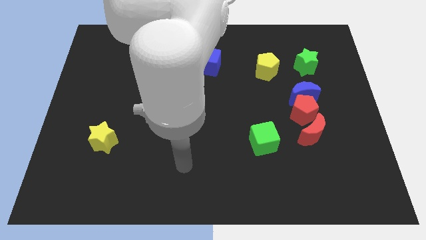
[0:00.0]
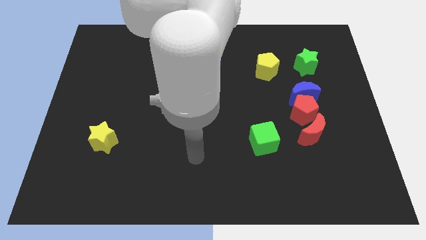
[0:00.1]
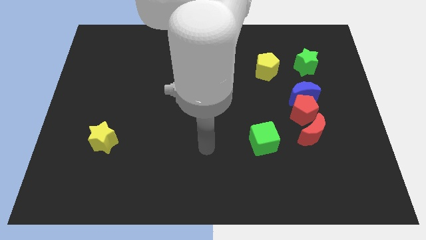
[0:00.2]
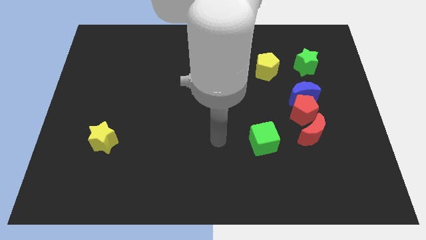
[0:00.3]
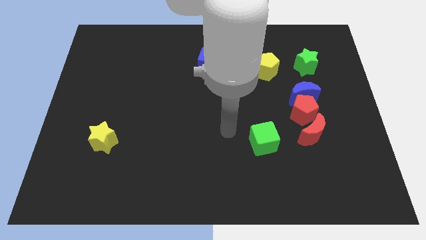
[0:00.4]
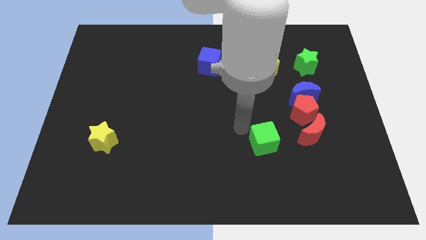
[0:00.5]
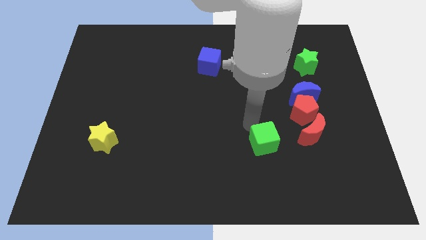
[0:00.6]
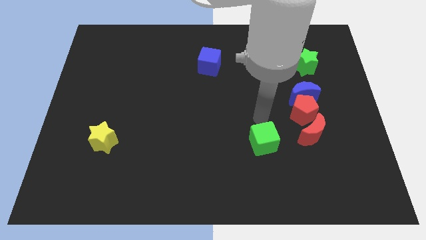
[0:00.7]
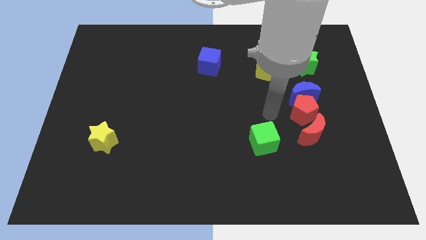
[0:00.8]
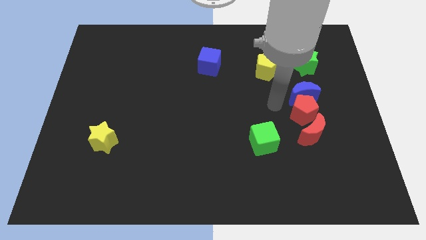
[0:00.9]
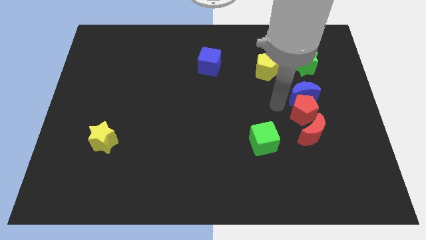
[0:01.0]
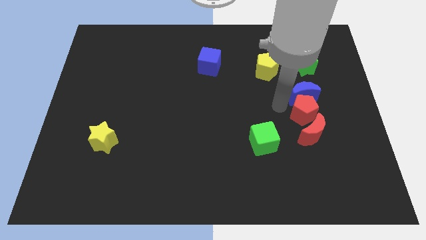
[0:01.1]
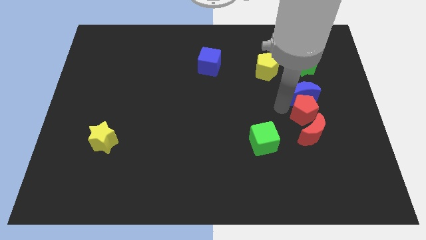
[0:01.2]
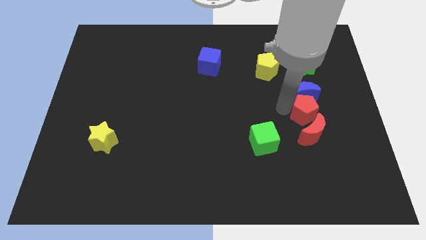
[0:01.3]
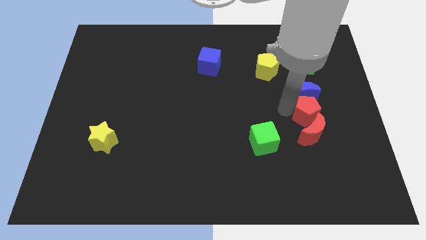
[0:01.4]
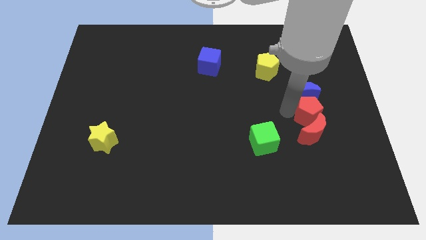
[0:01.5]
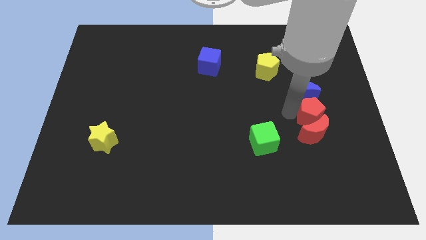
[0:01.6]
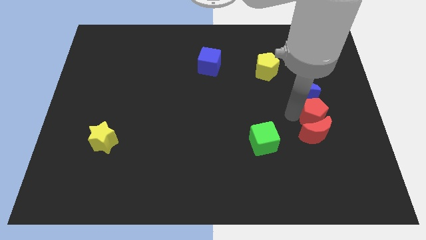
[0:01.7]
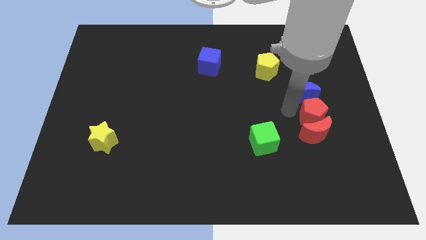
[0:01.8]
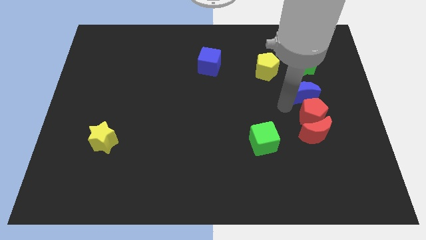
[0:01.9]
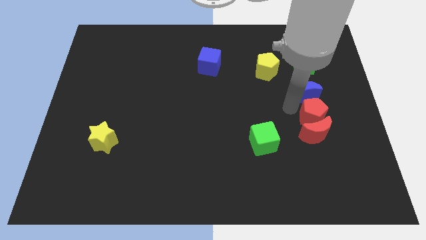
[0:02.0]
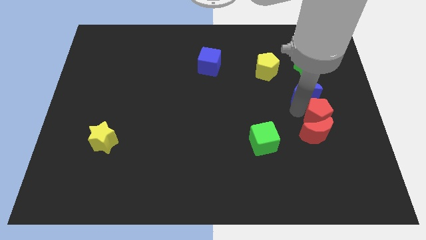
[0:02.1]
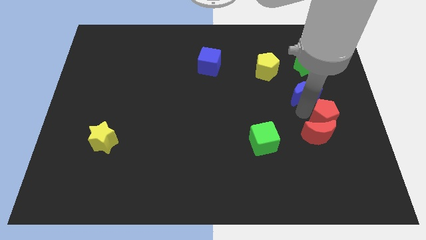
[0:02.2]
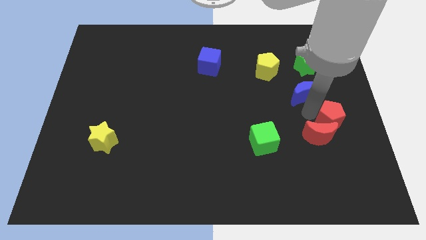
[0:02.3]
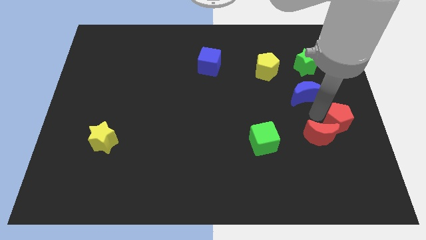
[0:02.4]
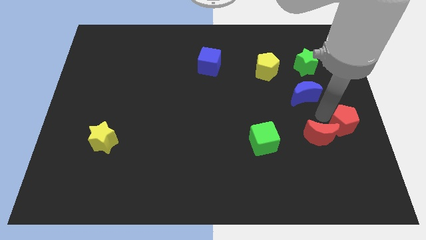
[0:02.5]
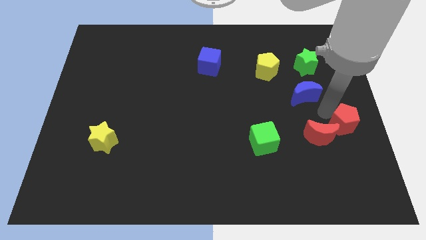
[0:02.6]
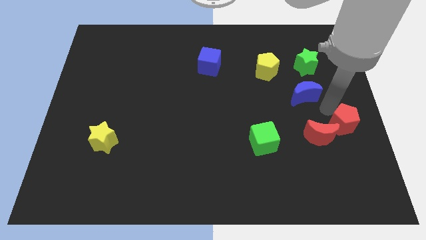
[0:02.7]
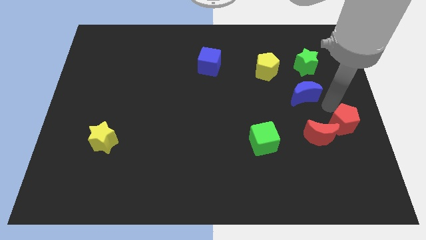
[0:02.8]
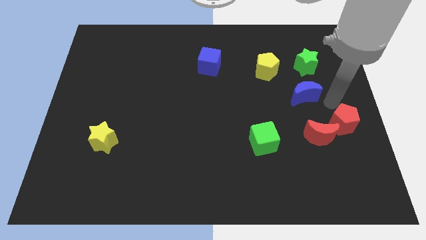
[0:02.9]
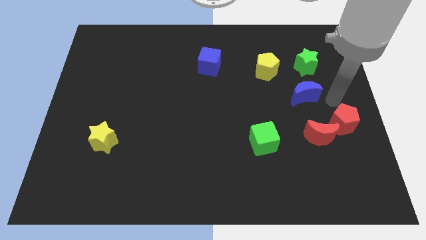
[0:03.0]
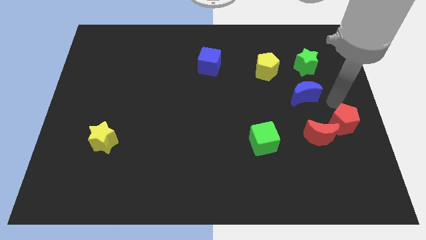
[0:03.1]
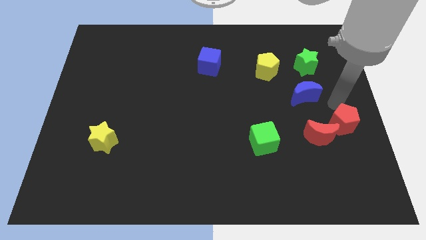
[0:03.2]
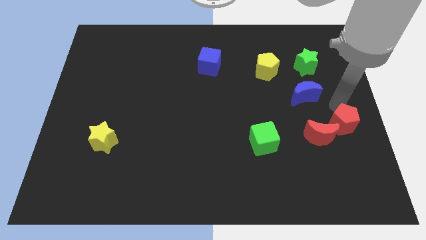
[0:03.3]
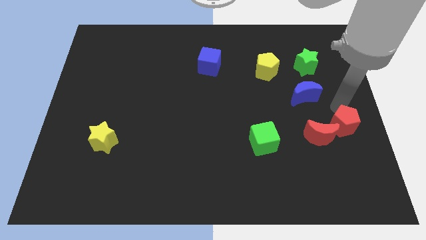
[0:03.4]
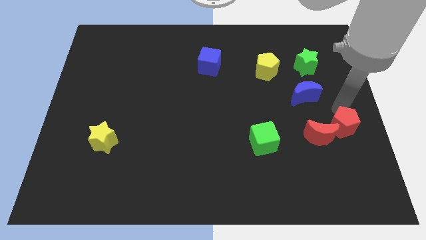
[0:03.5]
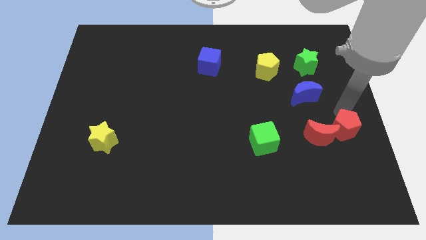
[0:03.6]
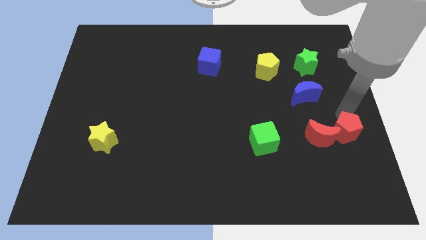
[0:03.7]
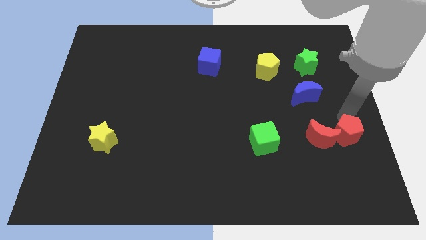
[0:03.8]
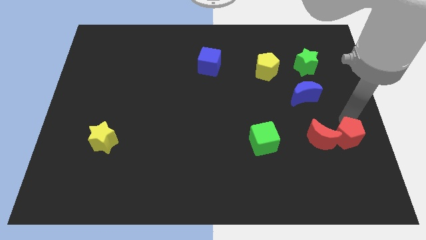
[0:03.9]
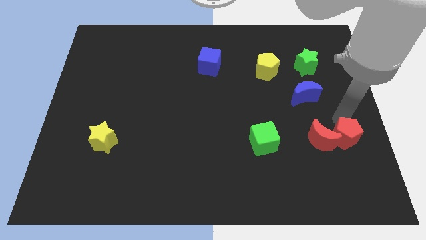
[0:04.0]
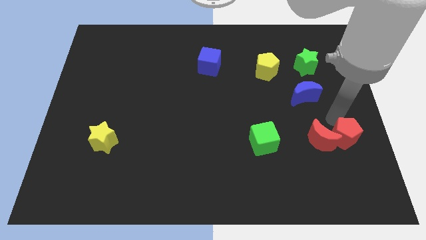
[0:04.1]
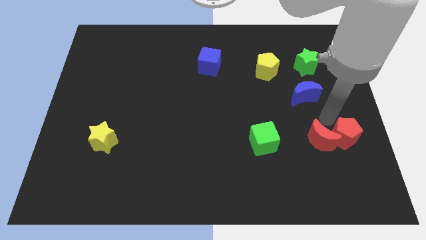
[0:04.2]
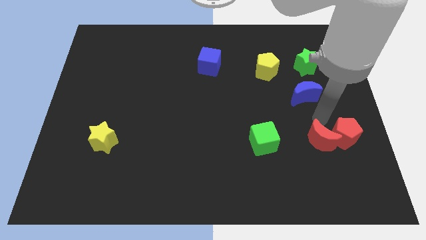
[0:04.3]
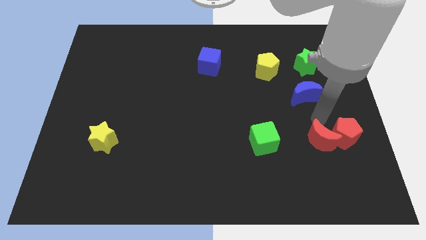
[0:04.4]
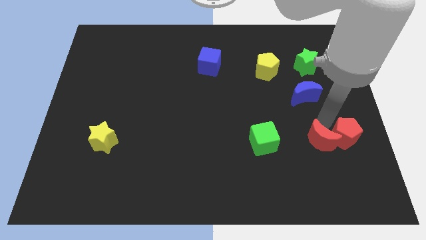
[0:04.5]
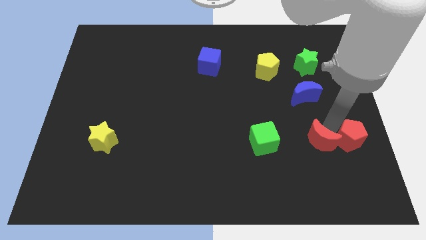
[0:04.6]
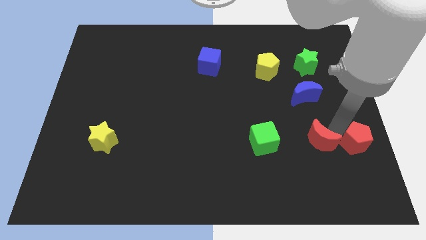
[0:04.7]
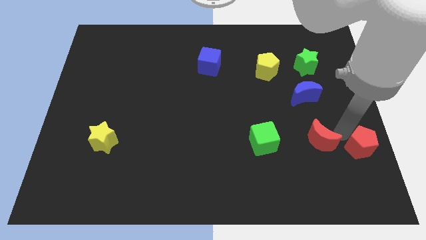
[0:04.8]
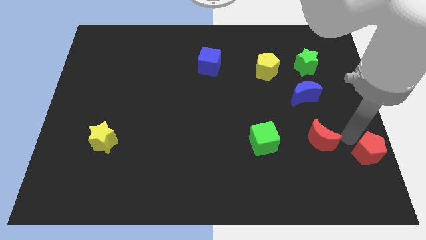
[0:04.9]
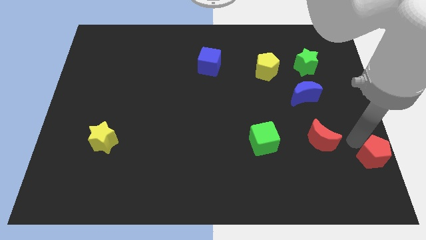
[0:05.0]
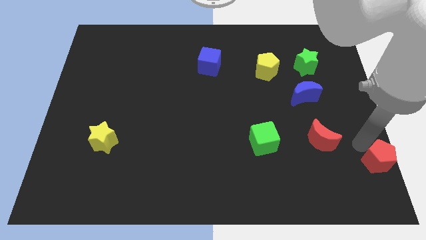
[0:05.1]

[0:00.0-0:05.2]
move the red pentagon to the bottom right of the board

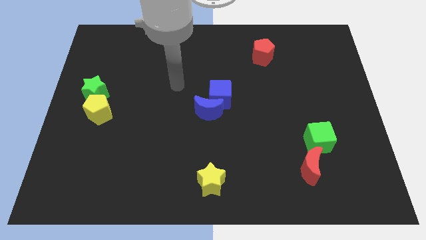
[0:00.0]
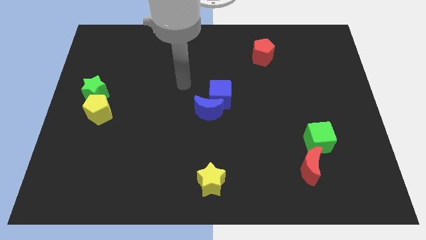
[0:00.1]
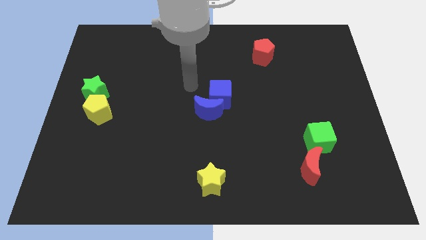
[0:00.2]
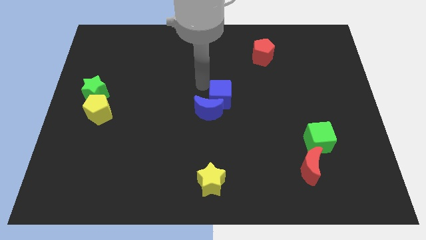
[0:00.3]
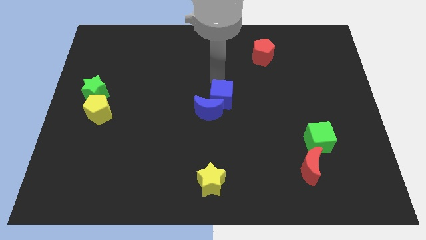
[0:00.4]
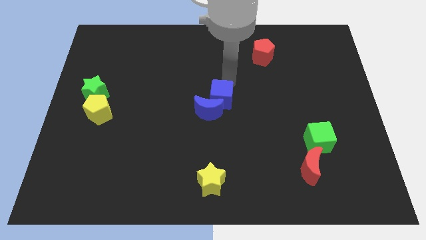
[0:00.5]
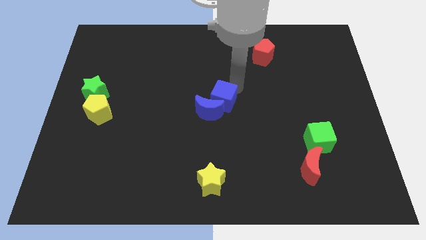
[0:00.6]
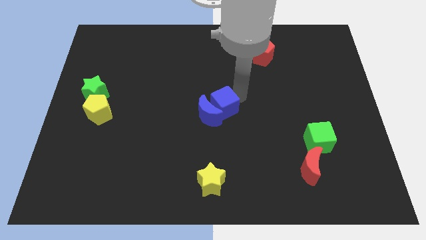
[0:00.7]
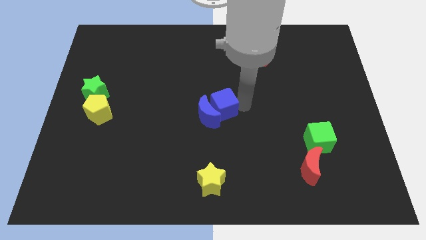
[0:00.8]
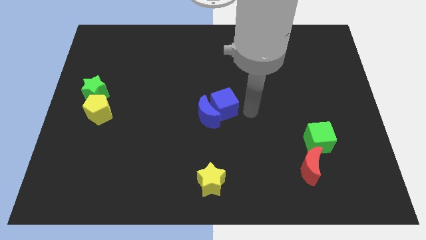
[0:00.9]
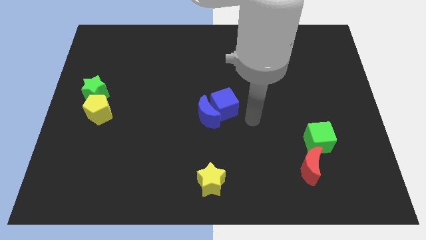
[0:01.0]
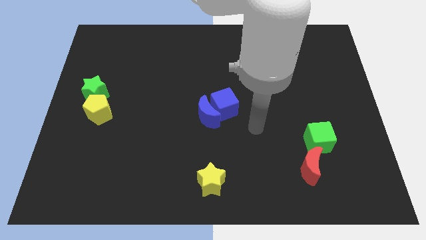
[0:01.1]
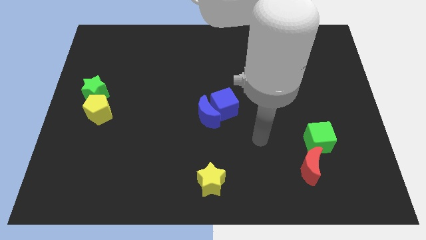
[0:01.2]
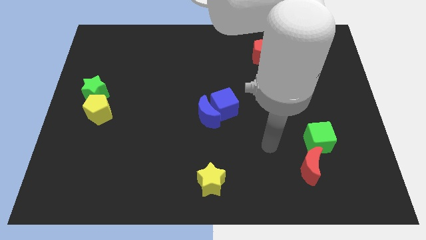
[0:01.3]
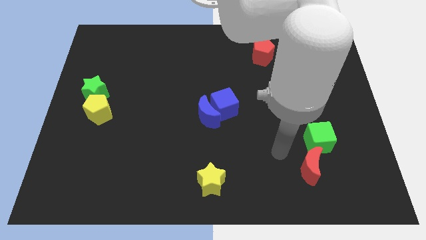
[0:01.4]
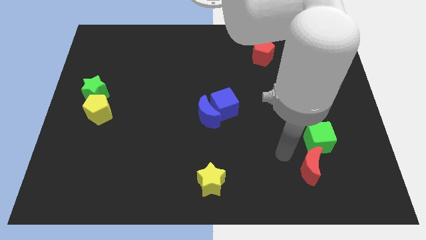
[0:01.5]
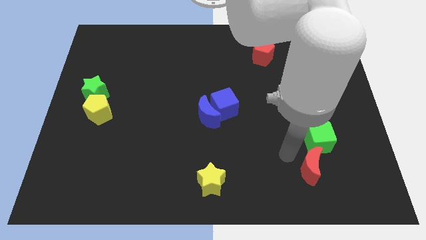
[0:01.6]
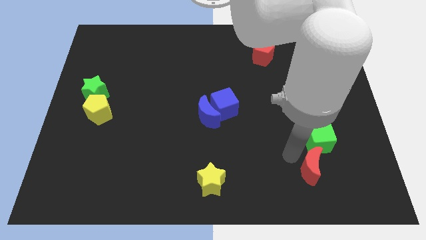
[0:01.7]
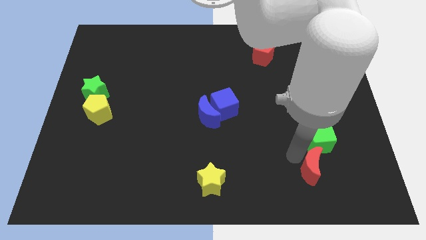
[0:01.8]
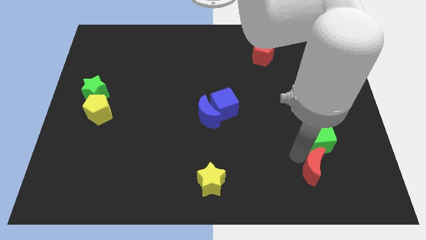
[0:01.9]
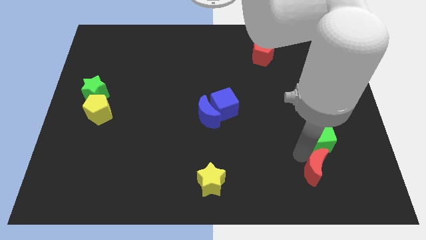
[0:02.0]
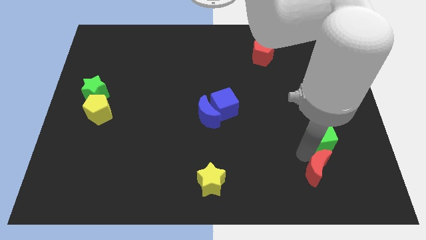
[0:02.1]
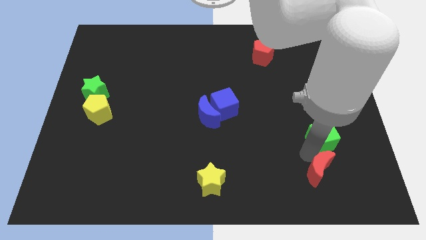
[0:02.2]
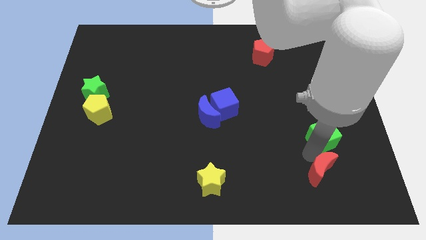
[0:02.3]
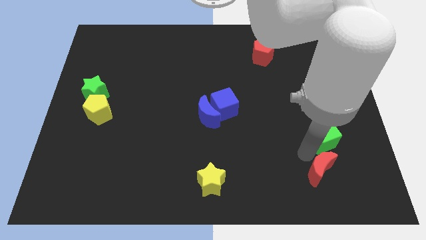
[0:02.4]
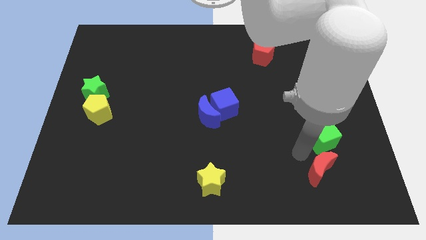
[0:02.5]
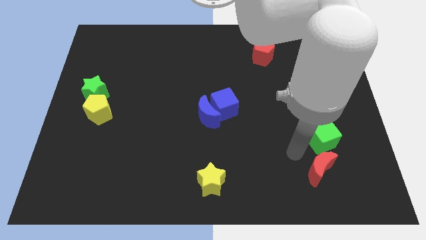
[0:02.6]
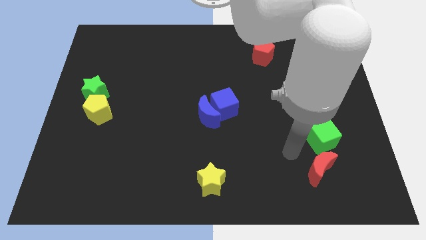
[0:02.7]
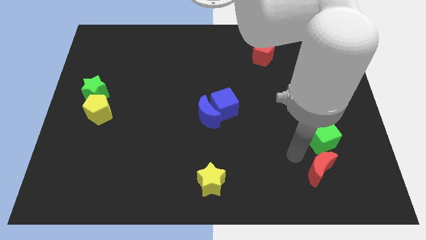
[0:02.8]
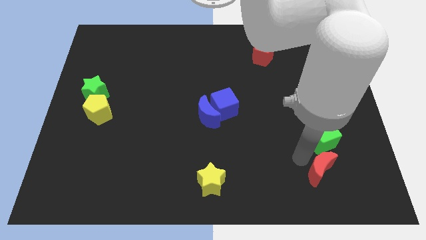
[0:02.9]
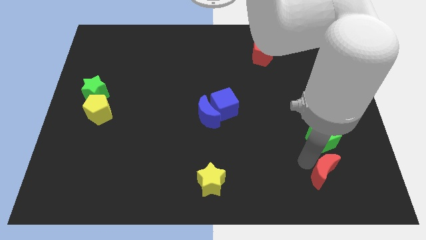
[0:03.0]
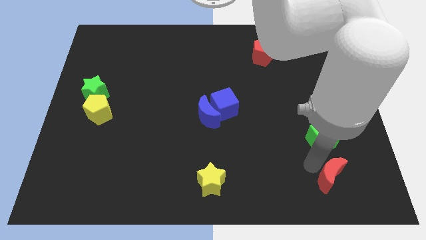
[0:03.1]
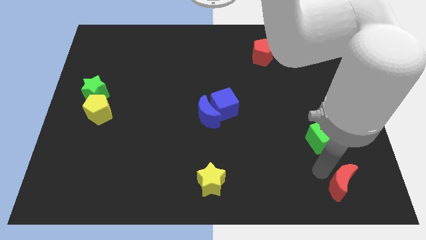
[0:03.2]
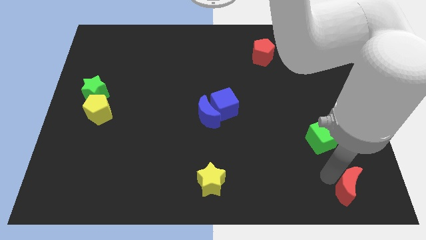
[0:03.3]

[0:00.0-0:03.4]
put the red moon to the bottom right of the board
